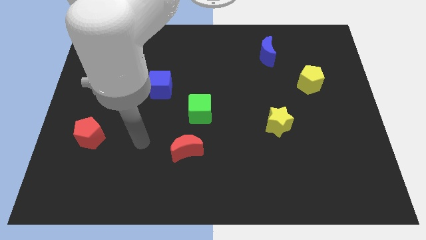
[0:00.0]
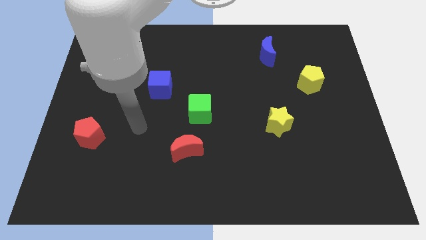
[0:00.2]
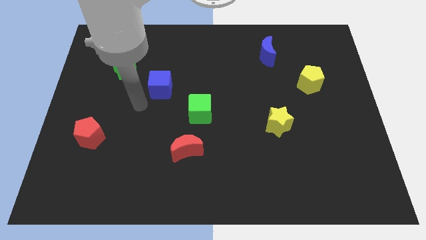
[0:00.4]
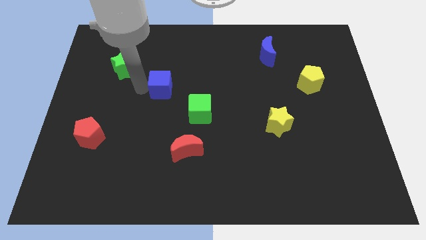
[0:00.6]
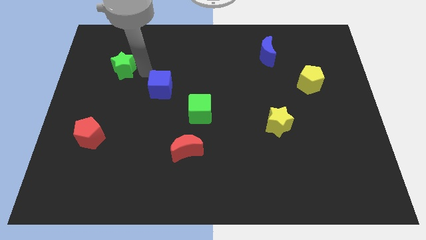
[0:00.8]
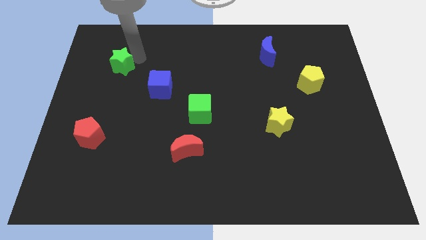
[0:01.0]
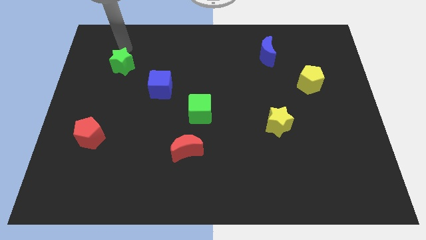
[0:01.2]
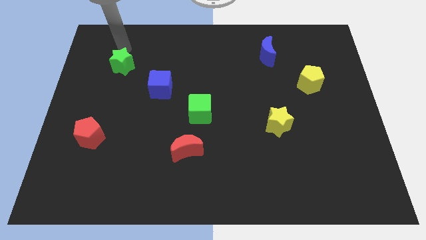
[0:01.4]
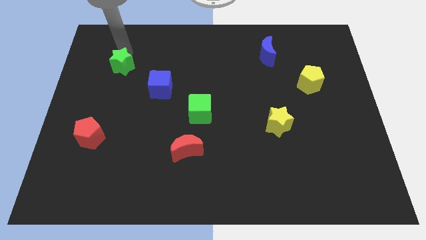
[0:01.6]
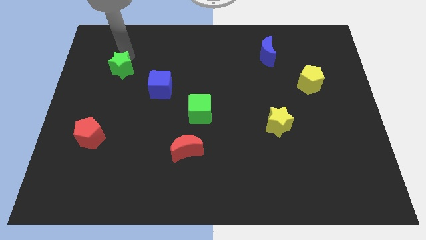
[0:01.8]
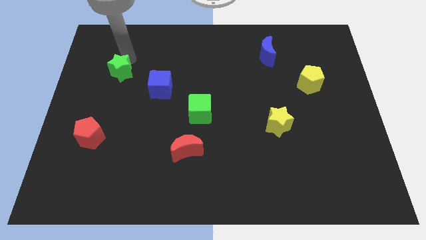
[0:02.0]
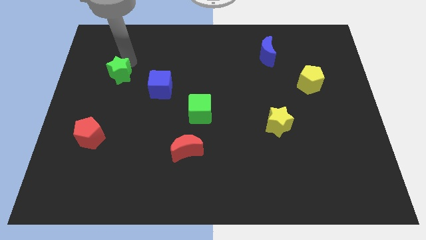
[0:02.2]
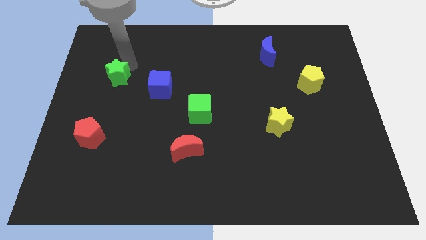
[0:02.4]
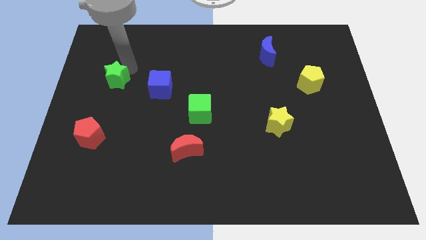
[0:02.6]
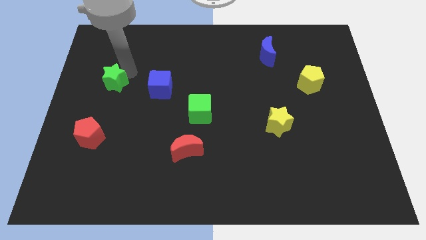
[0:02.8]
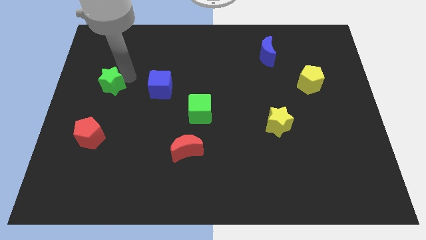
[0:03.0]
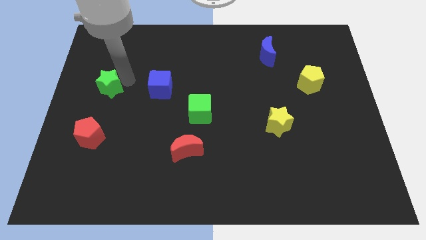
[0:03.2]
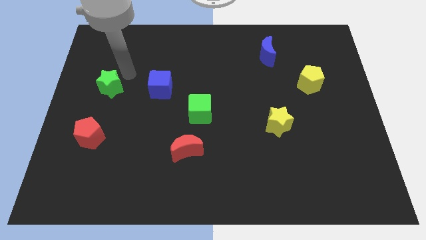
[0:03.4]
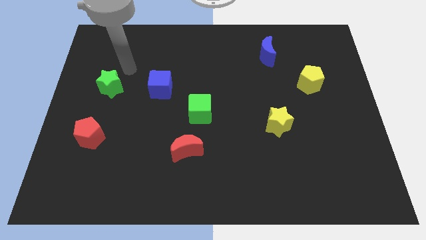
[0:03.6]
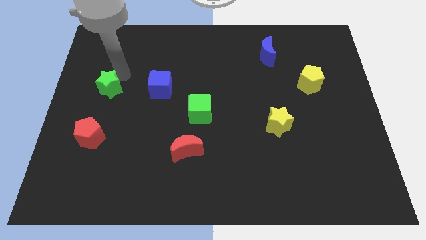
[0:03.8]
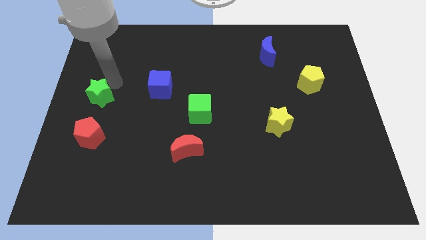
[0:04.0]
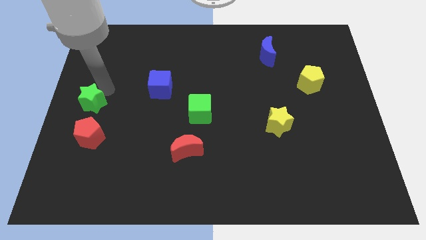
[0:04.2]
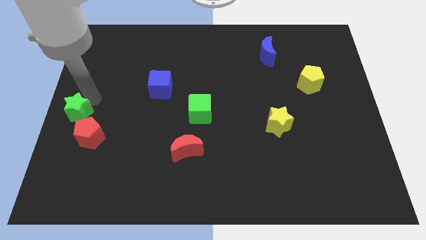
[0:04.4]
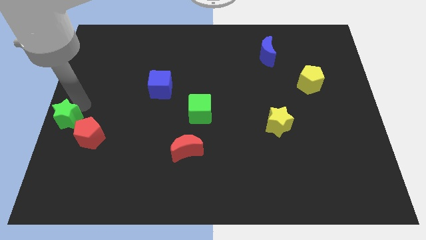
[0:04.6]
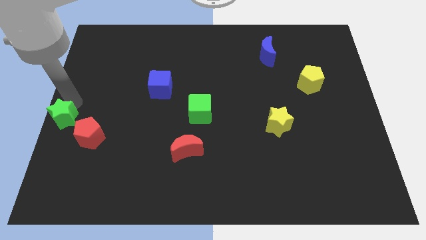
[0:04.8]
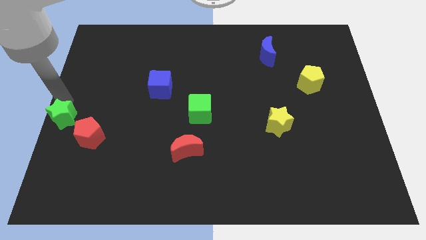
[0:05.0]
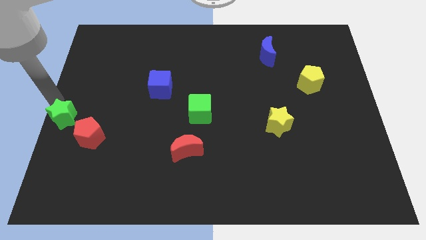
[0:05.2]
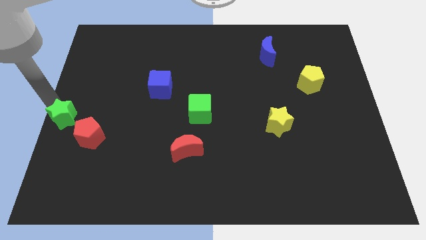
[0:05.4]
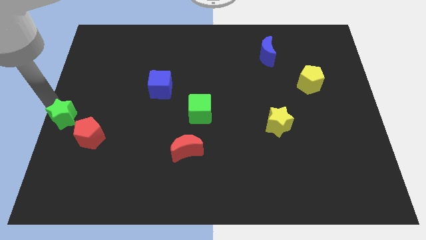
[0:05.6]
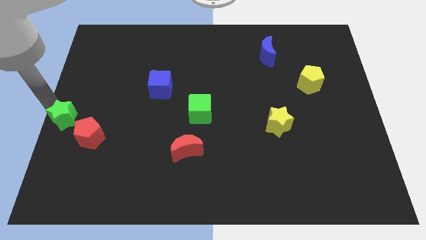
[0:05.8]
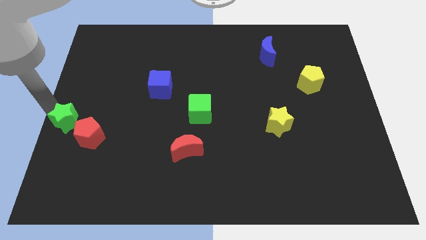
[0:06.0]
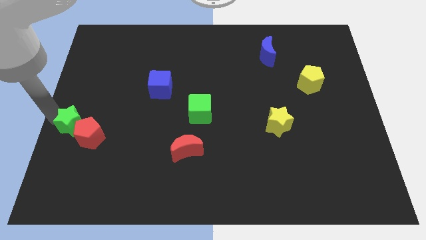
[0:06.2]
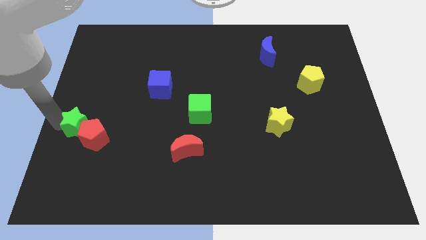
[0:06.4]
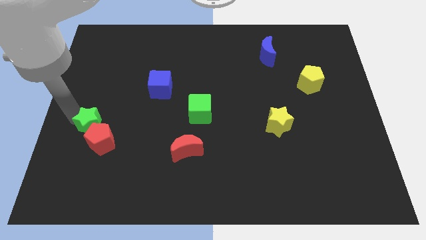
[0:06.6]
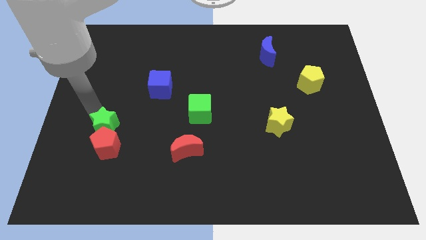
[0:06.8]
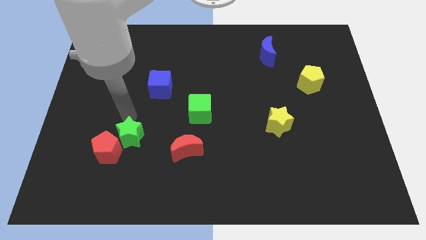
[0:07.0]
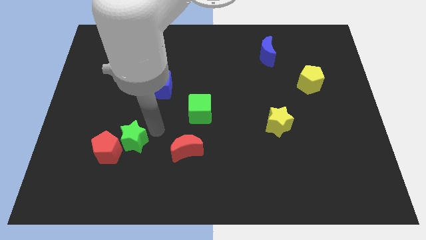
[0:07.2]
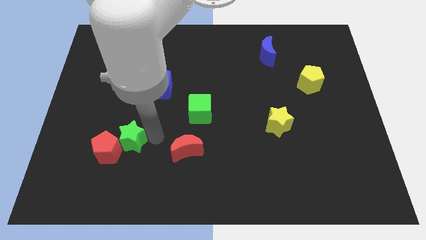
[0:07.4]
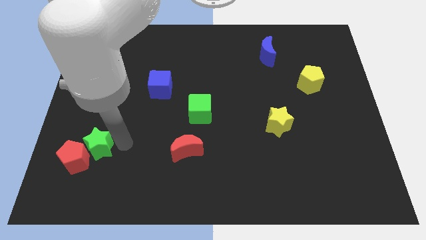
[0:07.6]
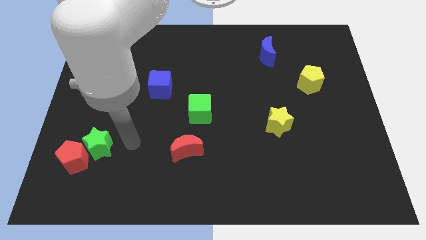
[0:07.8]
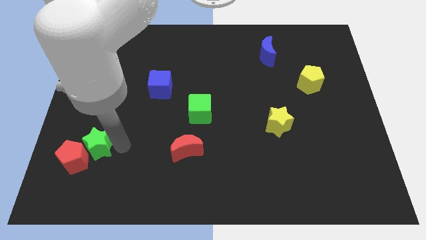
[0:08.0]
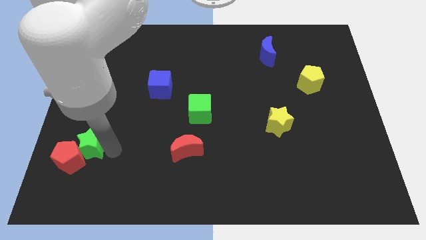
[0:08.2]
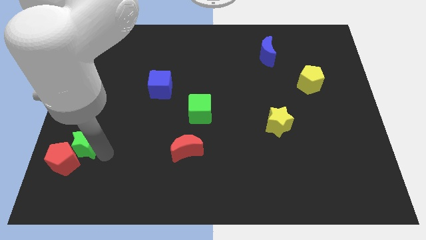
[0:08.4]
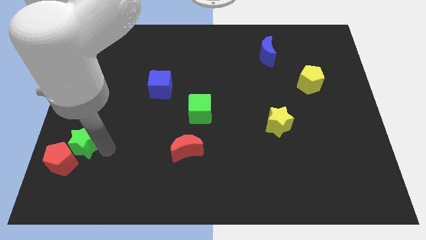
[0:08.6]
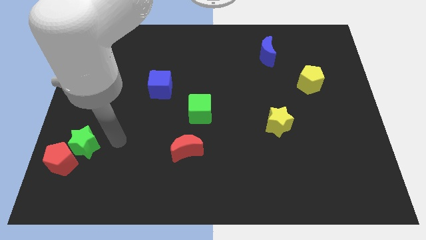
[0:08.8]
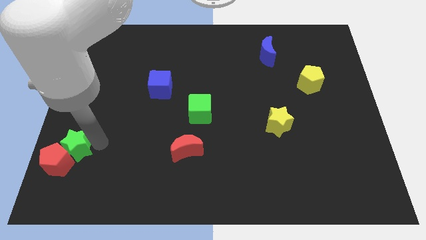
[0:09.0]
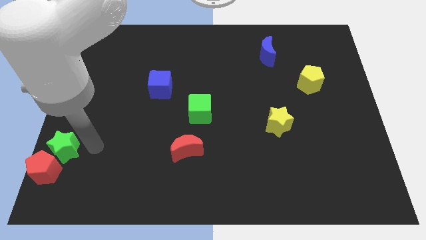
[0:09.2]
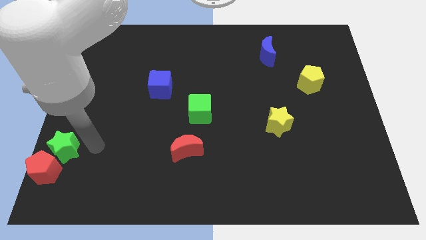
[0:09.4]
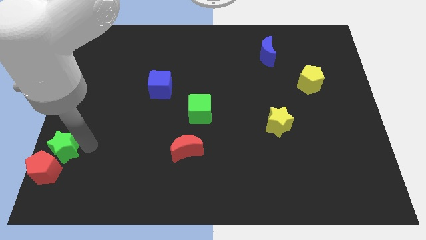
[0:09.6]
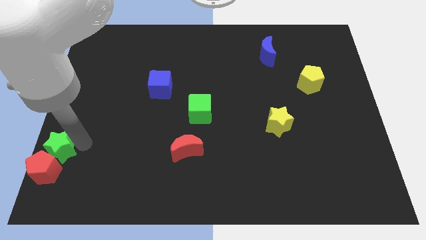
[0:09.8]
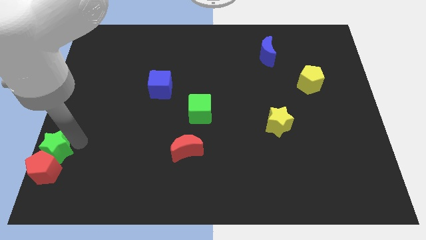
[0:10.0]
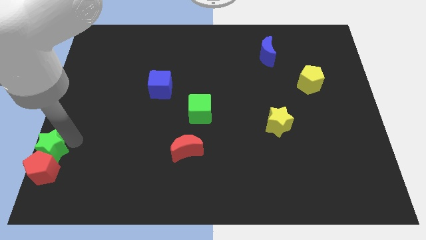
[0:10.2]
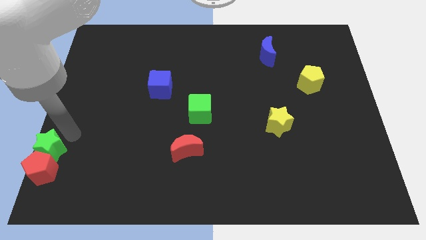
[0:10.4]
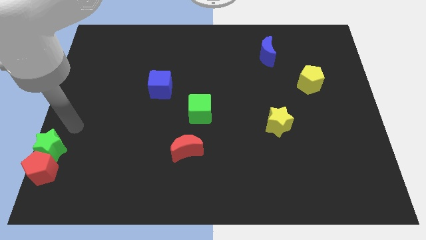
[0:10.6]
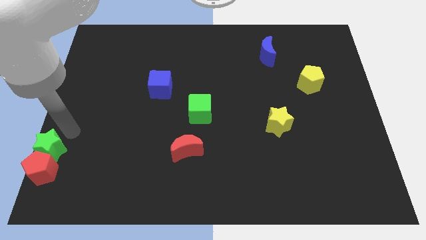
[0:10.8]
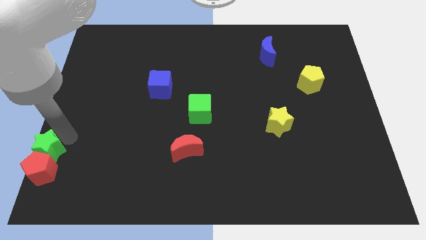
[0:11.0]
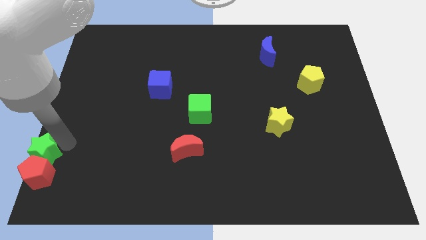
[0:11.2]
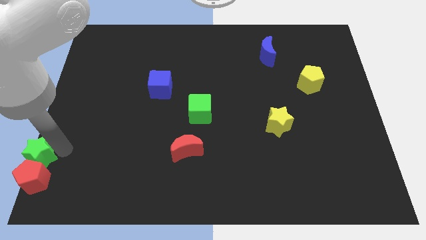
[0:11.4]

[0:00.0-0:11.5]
slide the green star to the bottom left
